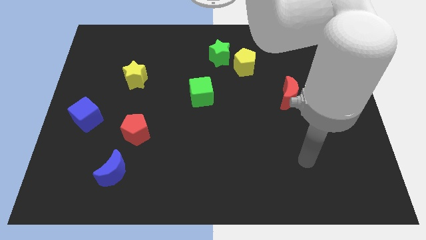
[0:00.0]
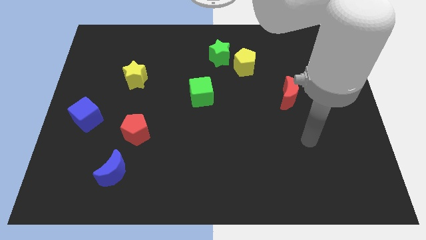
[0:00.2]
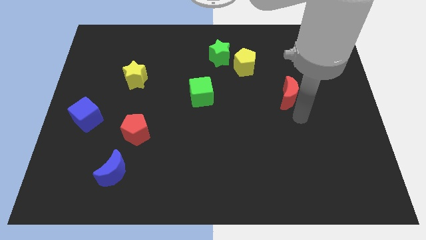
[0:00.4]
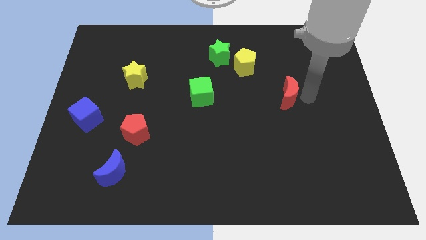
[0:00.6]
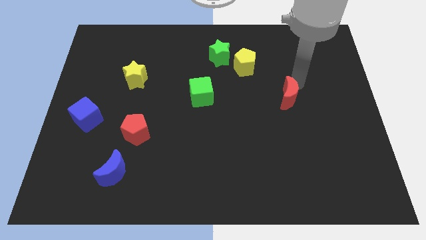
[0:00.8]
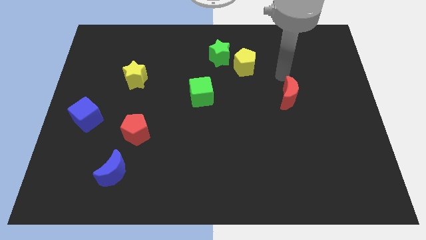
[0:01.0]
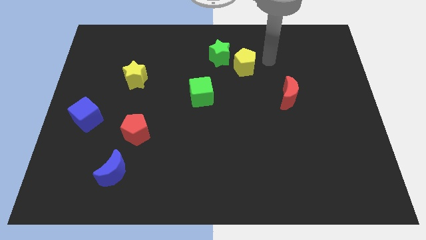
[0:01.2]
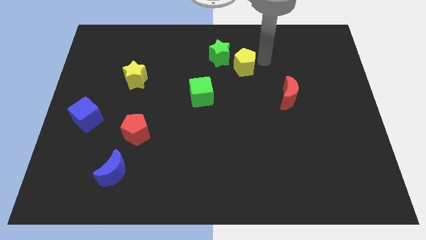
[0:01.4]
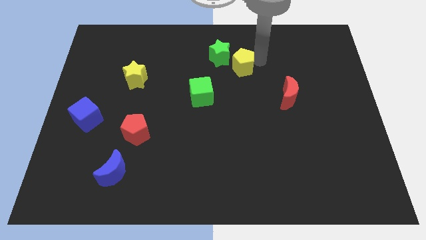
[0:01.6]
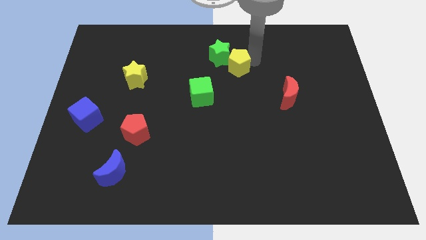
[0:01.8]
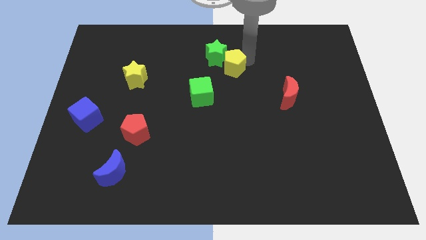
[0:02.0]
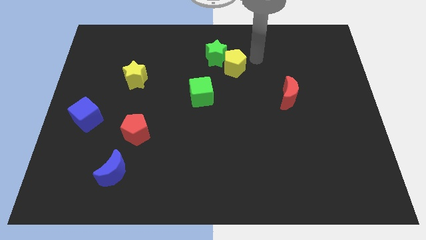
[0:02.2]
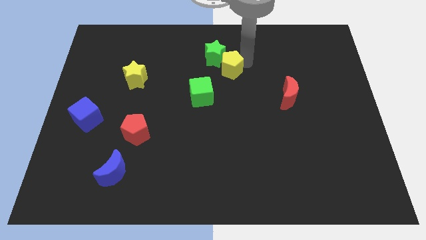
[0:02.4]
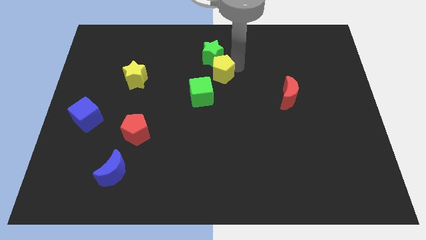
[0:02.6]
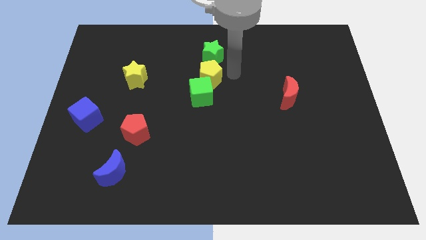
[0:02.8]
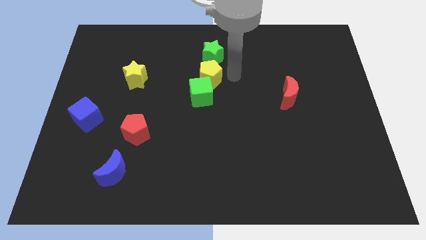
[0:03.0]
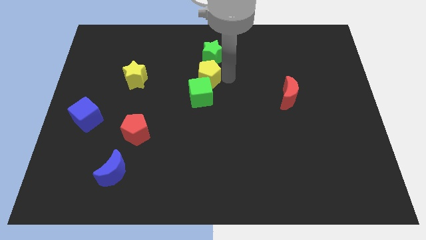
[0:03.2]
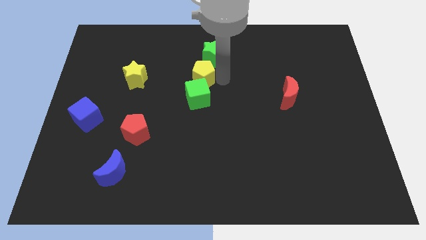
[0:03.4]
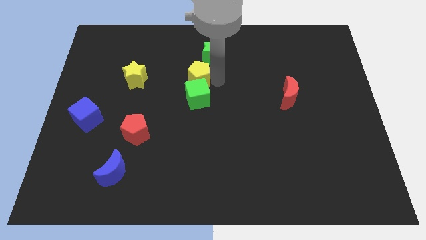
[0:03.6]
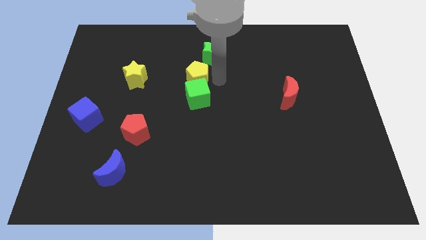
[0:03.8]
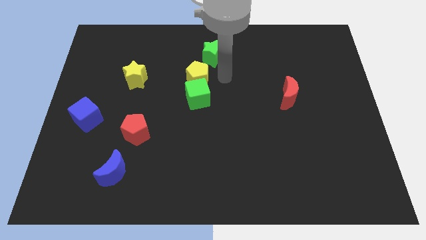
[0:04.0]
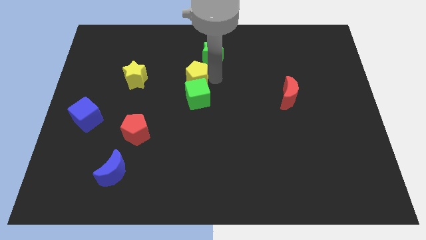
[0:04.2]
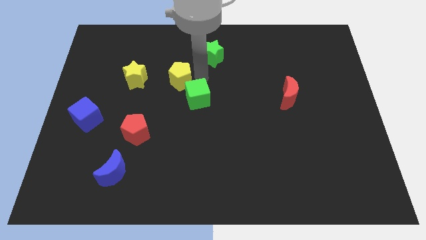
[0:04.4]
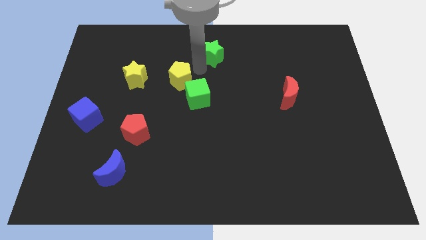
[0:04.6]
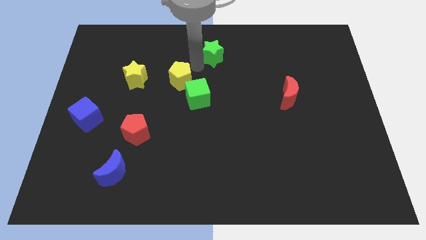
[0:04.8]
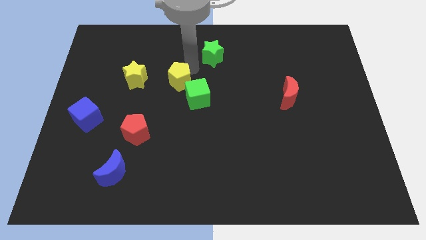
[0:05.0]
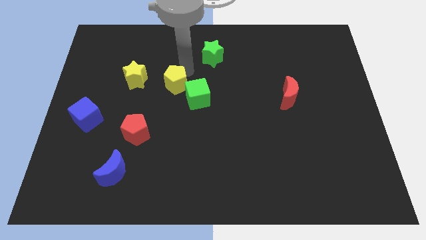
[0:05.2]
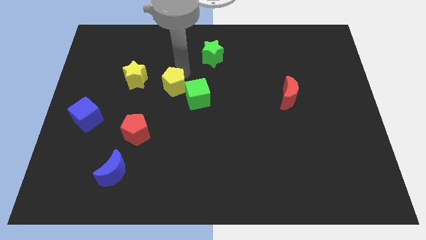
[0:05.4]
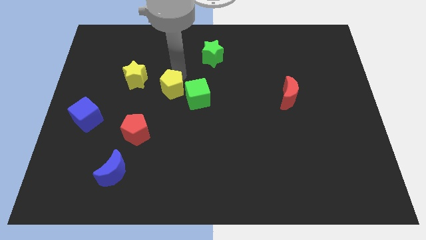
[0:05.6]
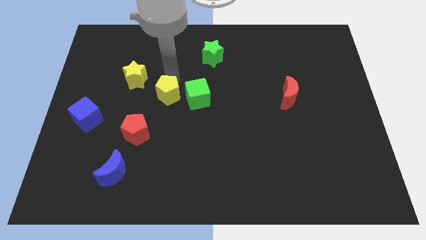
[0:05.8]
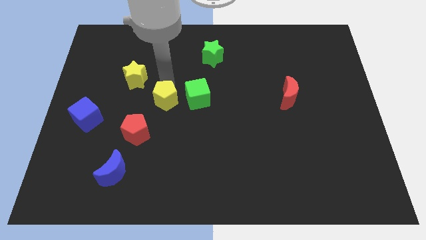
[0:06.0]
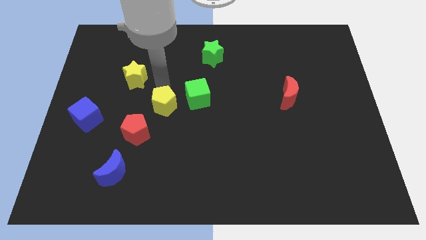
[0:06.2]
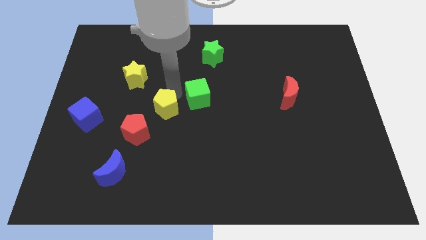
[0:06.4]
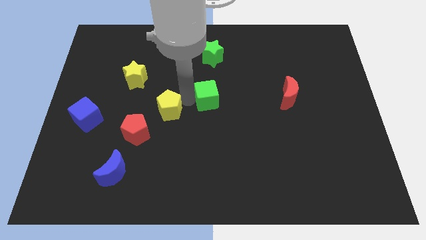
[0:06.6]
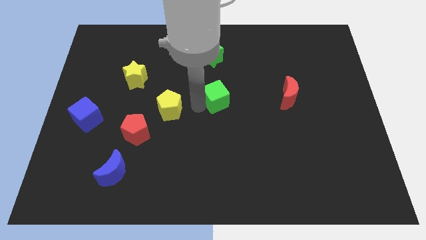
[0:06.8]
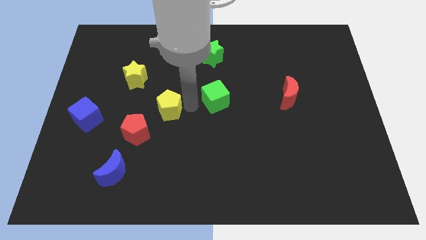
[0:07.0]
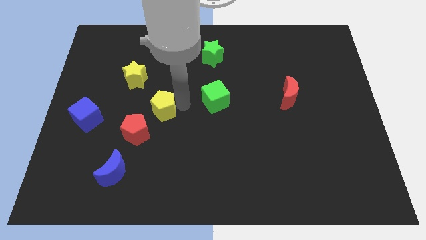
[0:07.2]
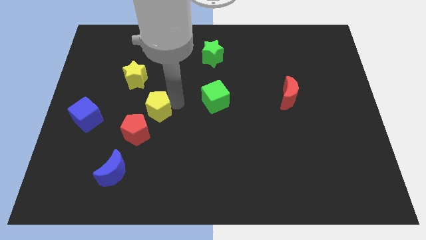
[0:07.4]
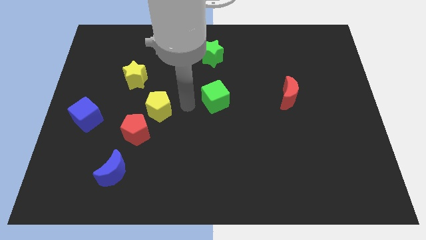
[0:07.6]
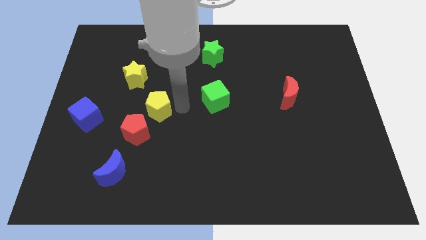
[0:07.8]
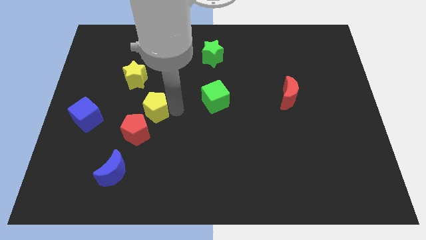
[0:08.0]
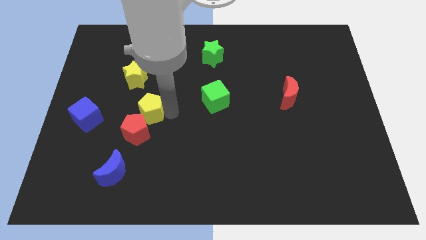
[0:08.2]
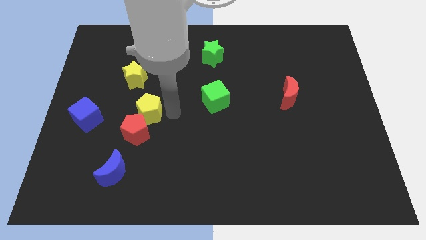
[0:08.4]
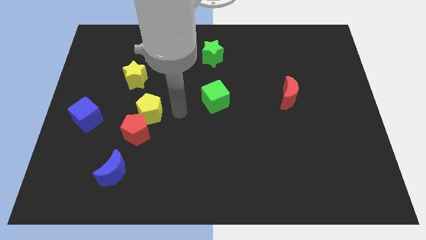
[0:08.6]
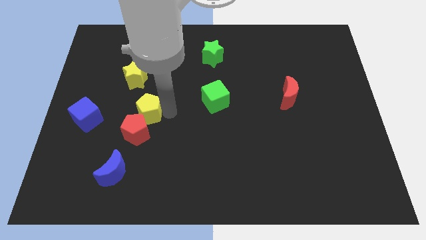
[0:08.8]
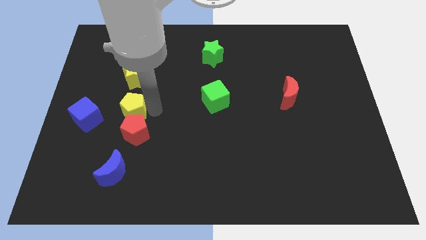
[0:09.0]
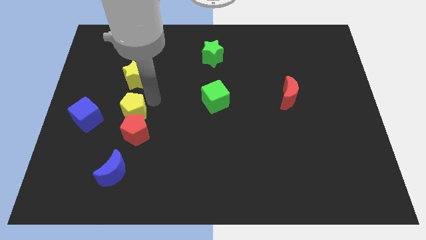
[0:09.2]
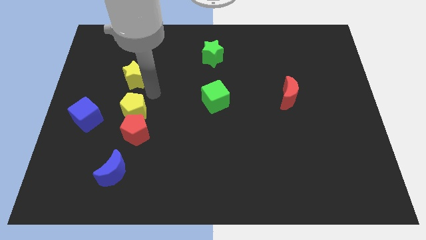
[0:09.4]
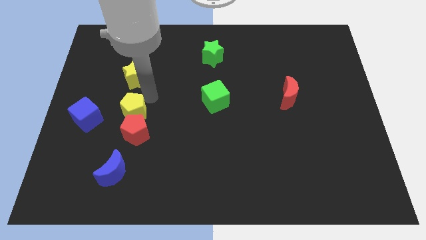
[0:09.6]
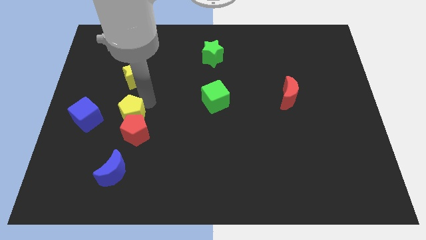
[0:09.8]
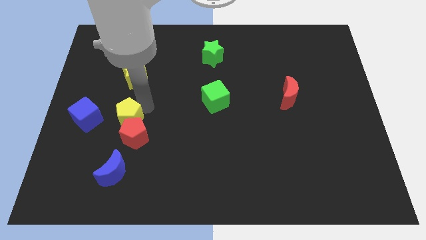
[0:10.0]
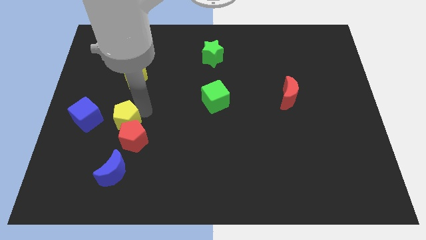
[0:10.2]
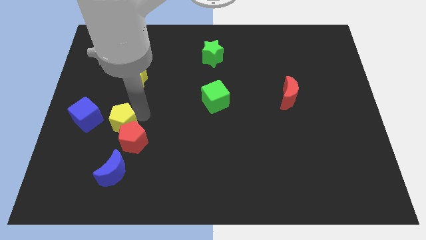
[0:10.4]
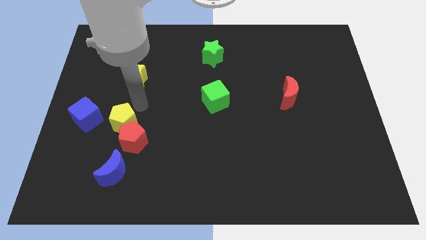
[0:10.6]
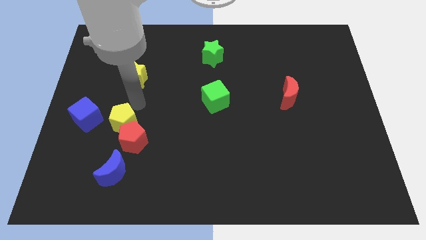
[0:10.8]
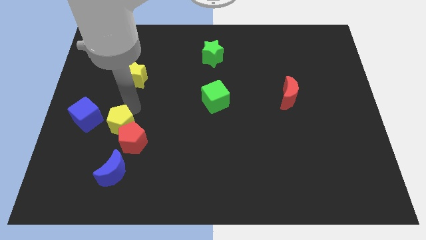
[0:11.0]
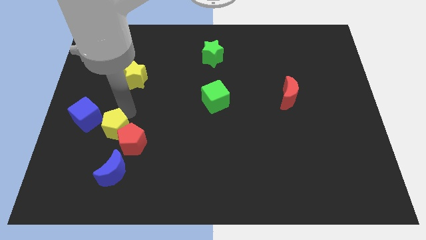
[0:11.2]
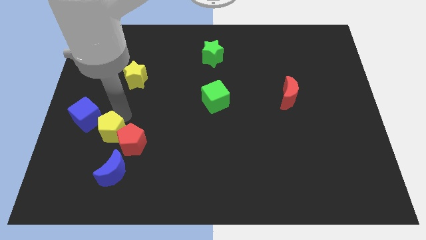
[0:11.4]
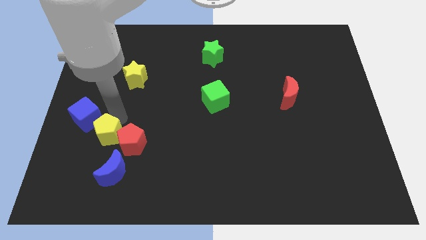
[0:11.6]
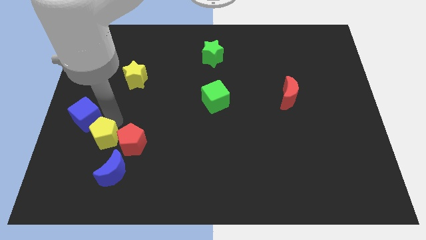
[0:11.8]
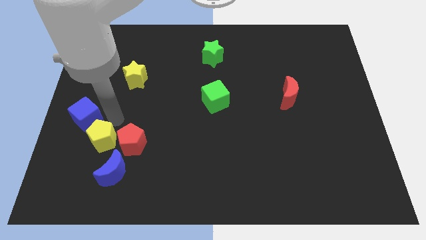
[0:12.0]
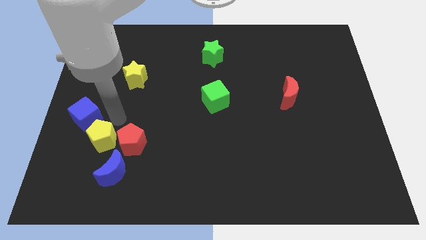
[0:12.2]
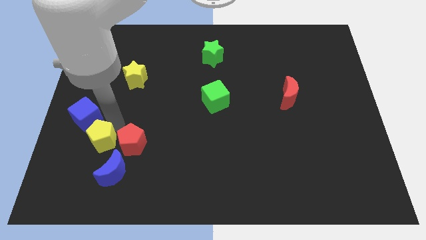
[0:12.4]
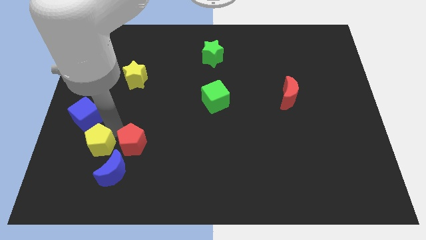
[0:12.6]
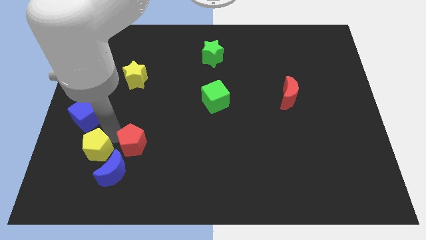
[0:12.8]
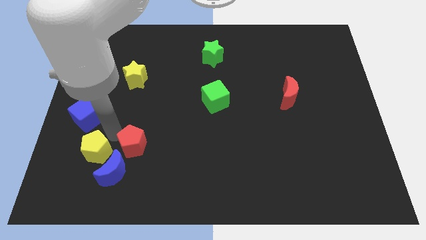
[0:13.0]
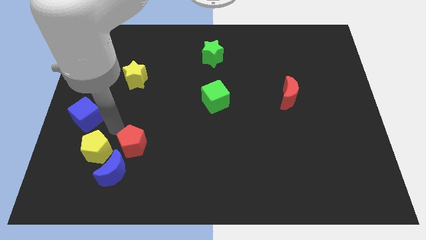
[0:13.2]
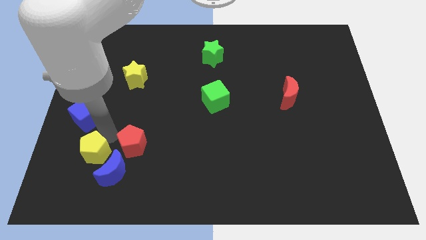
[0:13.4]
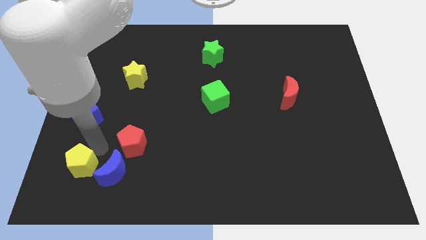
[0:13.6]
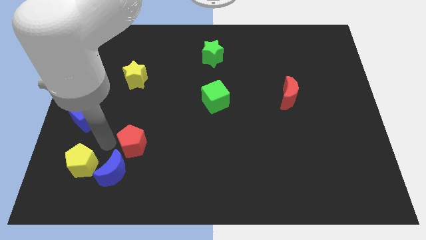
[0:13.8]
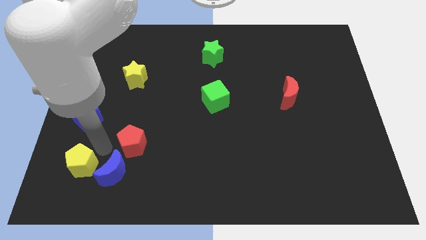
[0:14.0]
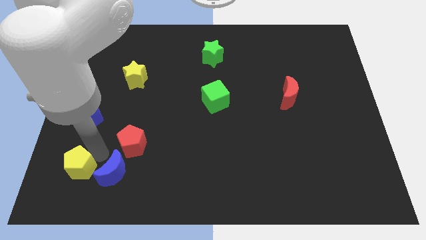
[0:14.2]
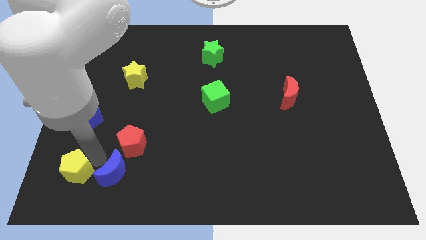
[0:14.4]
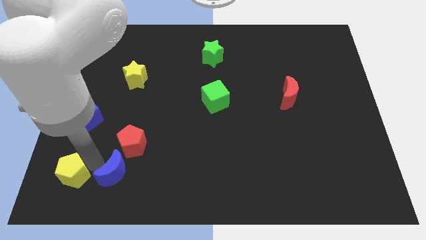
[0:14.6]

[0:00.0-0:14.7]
slide the yellow pentagon to the lower left corner
